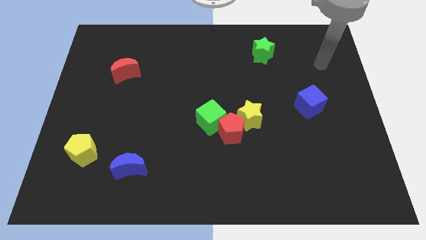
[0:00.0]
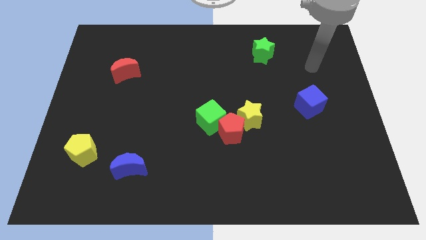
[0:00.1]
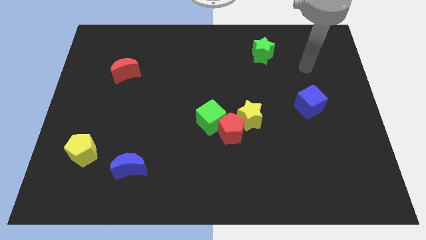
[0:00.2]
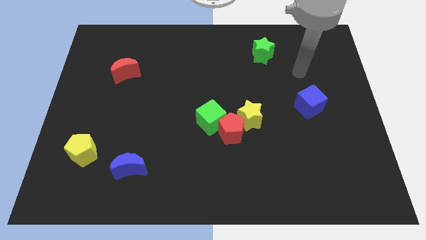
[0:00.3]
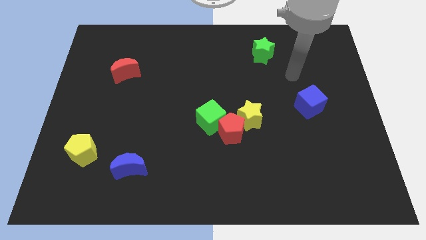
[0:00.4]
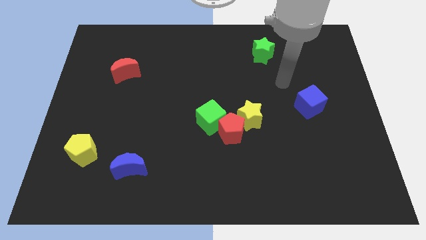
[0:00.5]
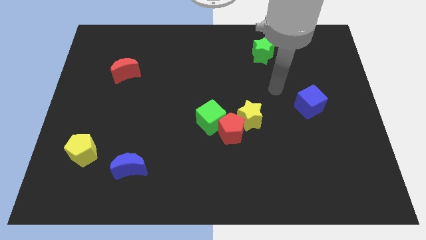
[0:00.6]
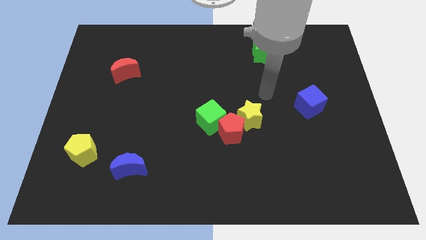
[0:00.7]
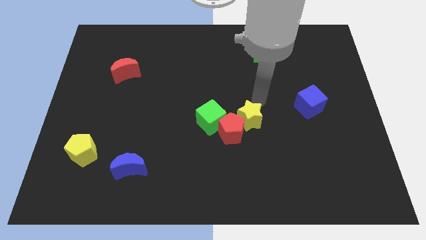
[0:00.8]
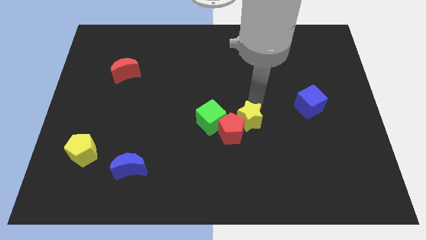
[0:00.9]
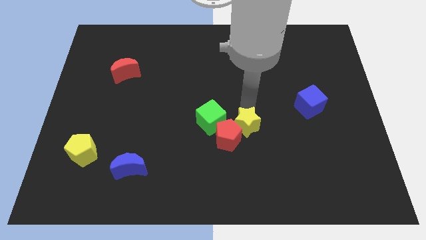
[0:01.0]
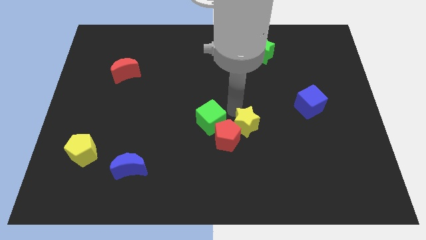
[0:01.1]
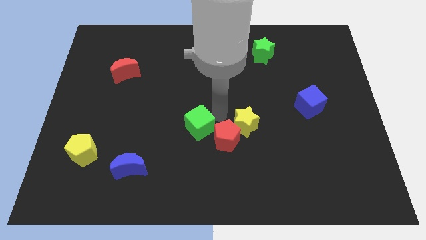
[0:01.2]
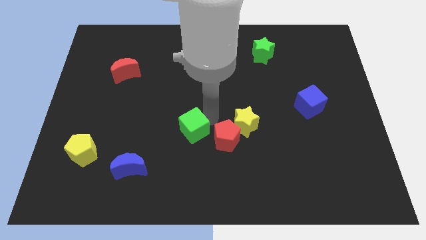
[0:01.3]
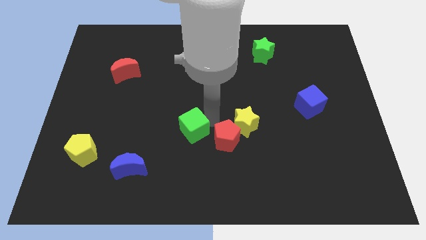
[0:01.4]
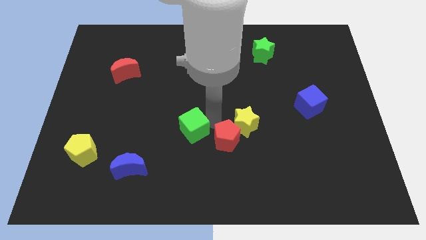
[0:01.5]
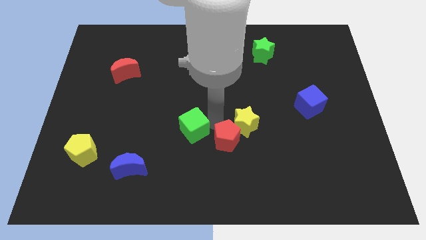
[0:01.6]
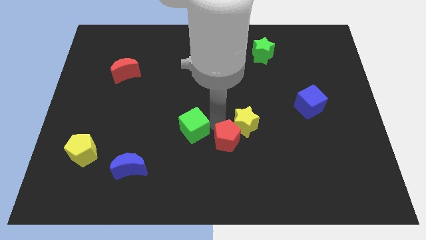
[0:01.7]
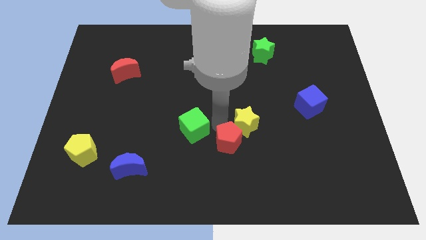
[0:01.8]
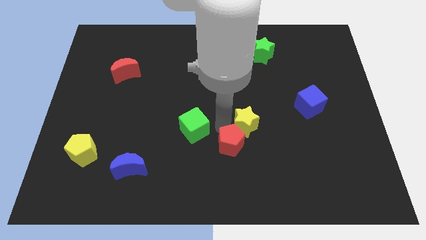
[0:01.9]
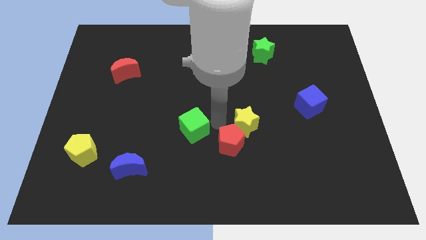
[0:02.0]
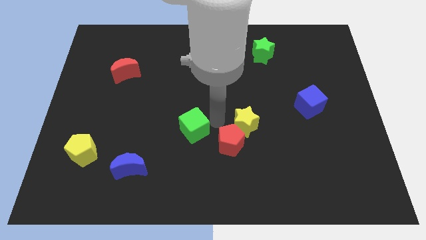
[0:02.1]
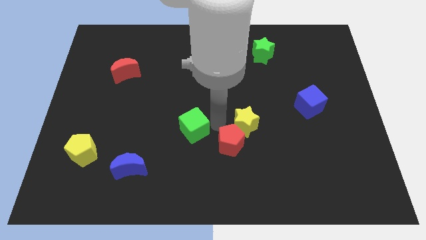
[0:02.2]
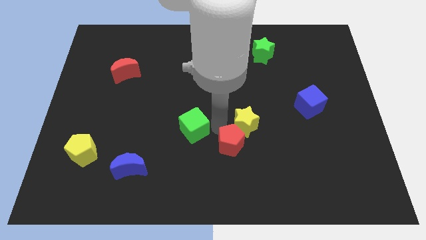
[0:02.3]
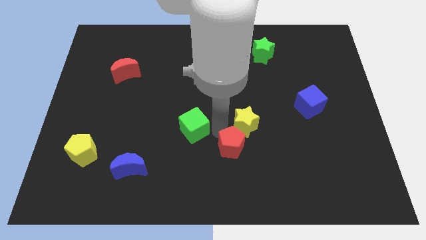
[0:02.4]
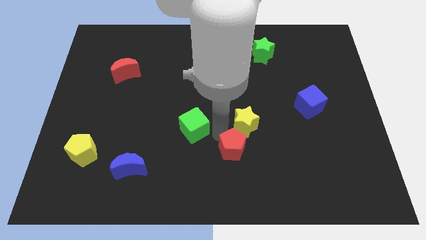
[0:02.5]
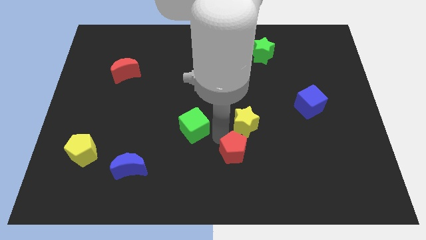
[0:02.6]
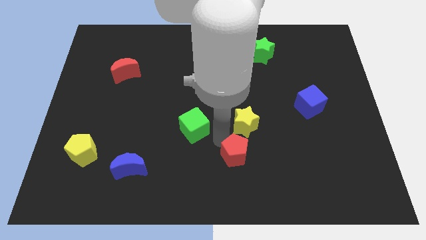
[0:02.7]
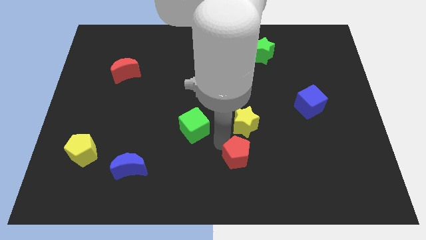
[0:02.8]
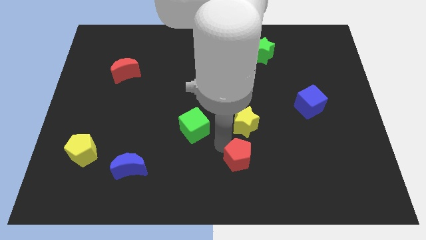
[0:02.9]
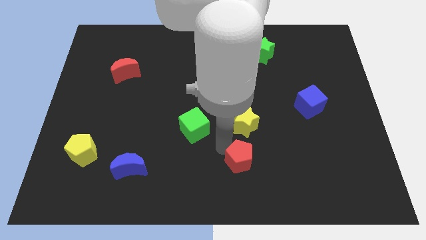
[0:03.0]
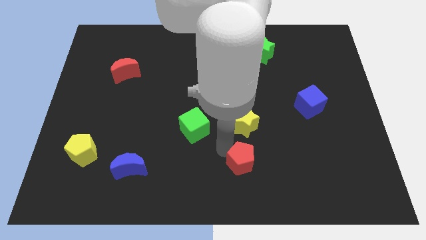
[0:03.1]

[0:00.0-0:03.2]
move the red pentagon away from the yellow star and green cube

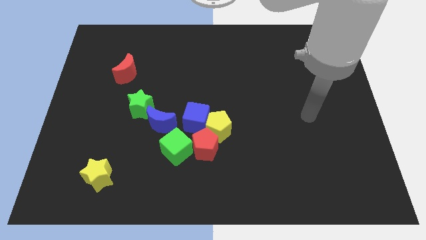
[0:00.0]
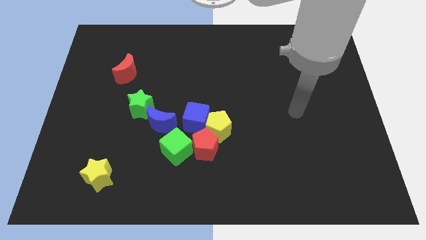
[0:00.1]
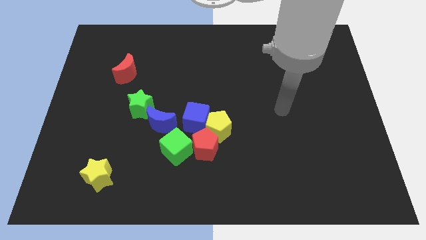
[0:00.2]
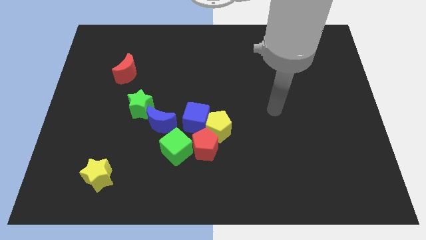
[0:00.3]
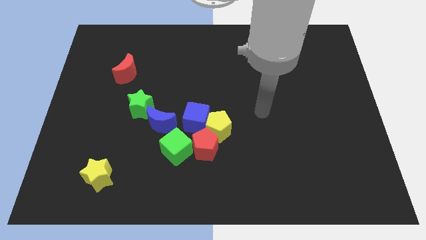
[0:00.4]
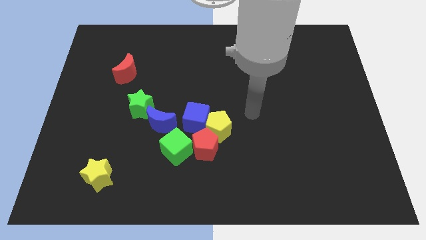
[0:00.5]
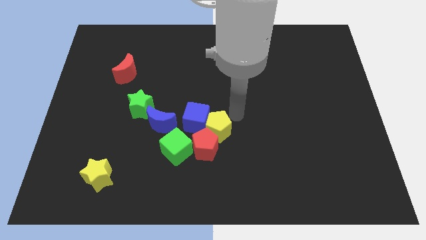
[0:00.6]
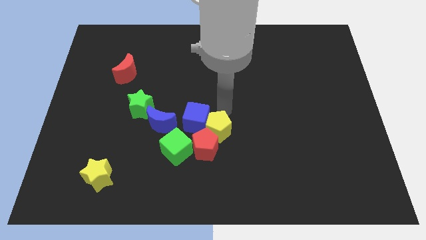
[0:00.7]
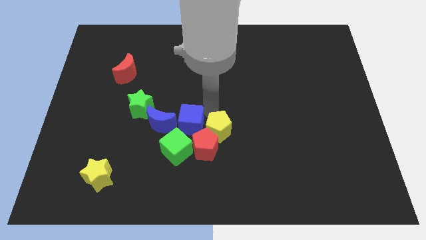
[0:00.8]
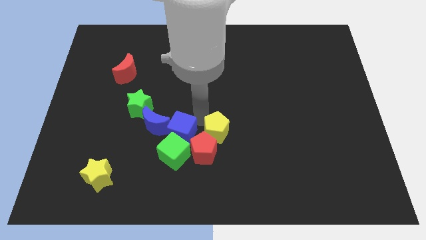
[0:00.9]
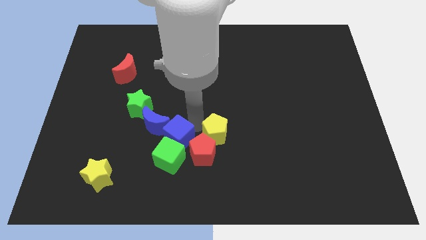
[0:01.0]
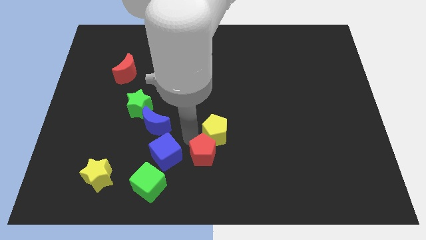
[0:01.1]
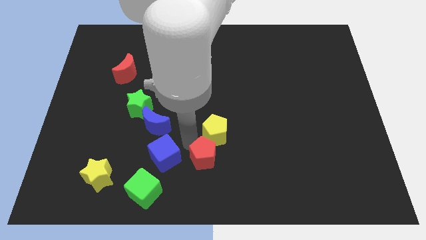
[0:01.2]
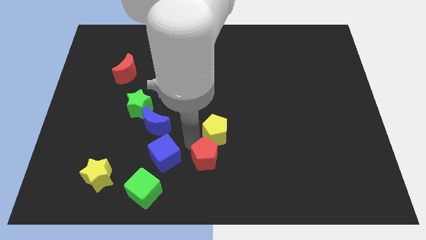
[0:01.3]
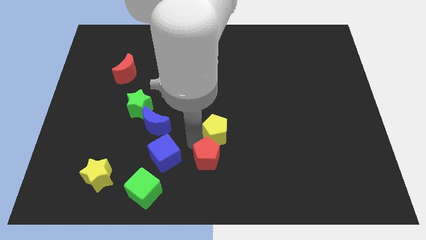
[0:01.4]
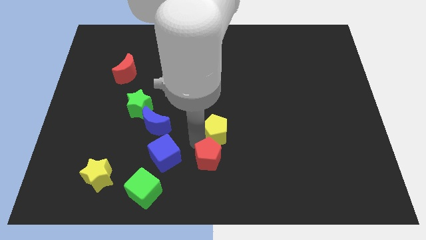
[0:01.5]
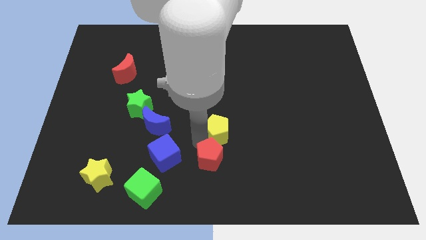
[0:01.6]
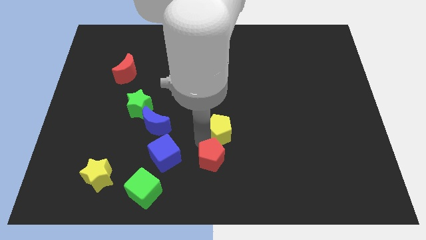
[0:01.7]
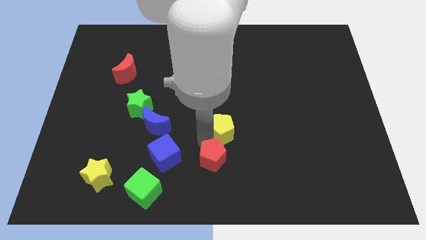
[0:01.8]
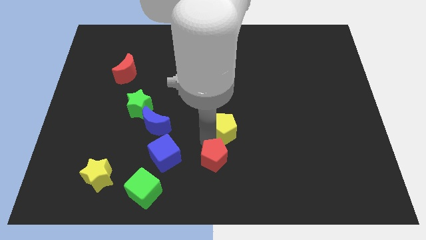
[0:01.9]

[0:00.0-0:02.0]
separate the yellow pentagon from the blue cube and red pentagon

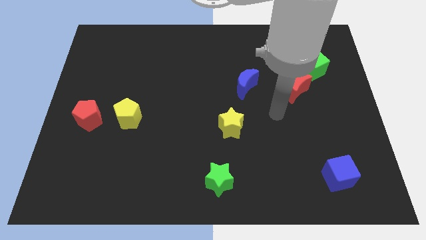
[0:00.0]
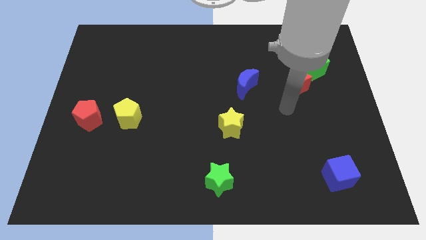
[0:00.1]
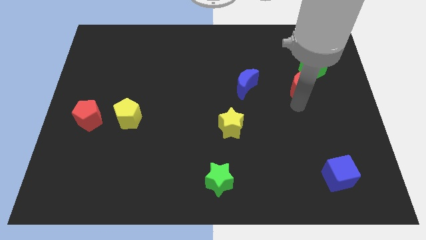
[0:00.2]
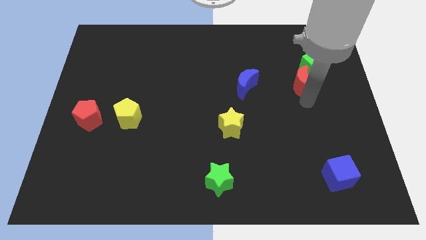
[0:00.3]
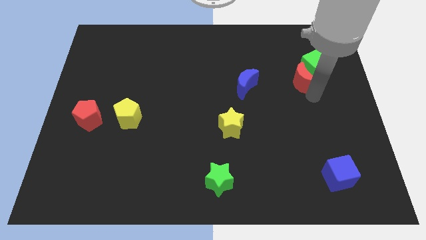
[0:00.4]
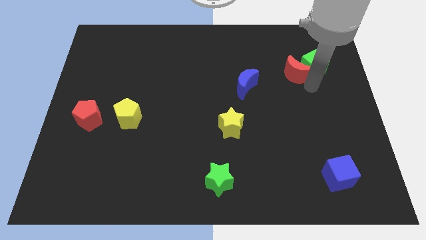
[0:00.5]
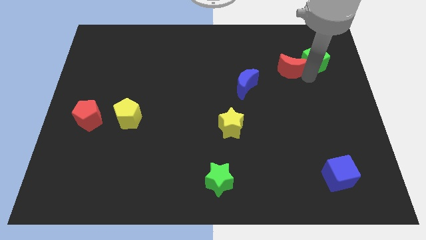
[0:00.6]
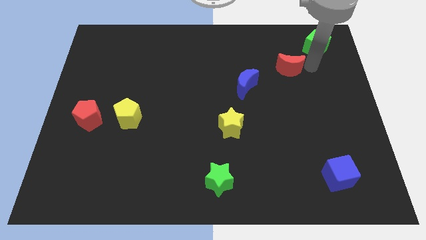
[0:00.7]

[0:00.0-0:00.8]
move the red moon away from the green cube

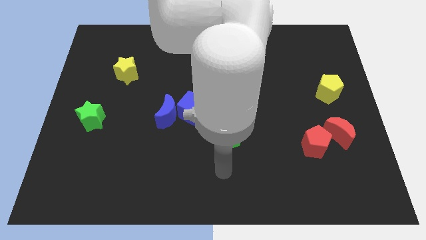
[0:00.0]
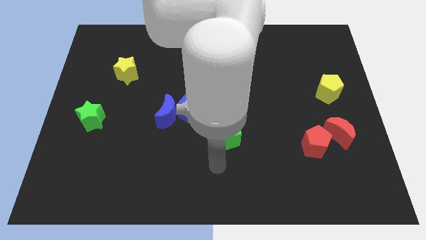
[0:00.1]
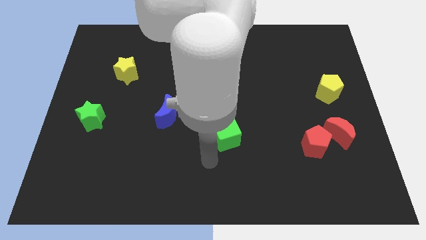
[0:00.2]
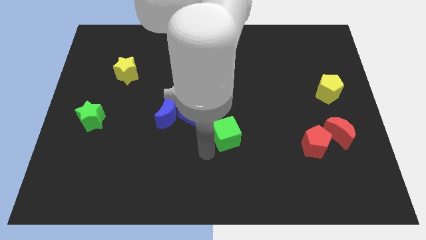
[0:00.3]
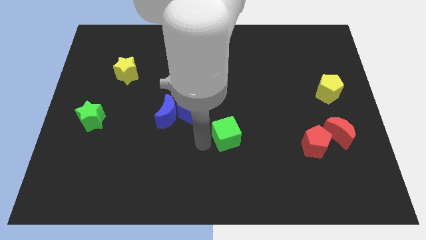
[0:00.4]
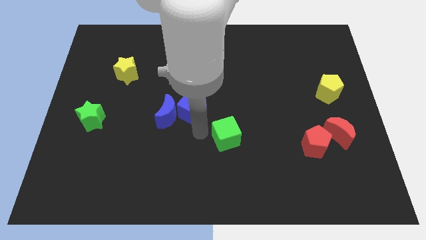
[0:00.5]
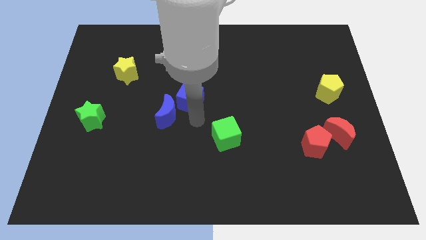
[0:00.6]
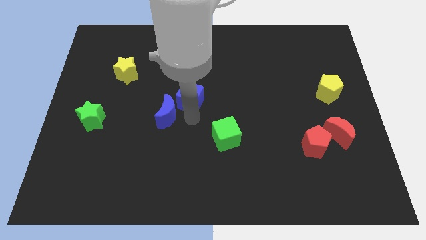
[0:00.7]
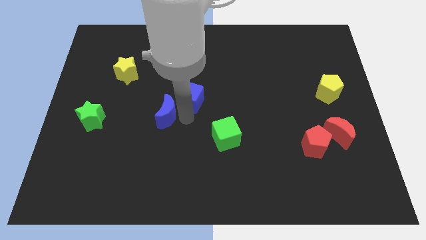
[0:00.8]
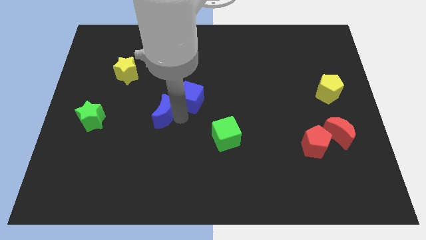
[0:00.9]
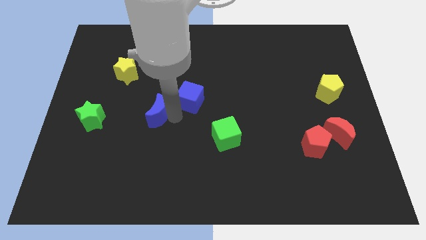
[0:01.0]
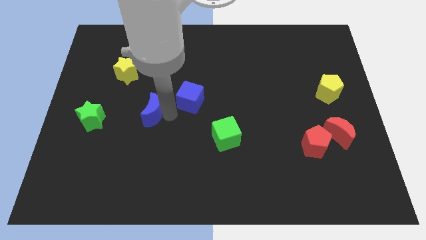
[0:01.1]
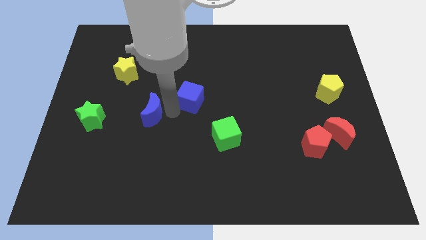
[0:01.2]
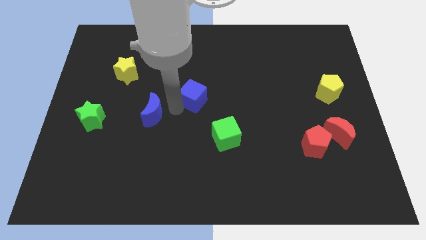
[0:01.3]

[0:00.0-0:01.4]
separate the blue moon from the blue cube

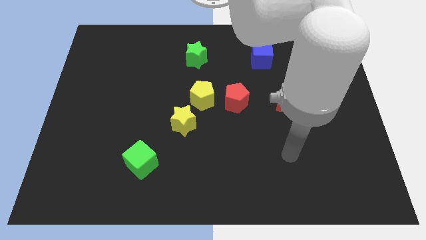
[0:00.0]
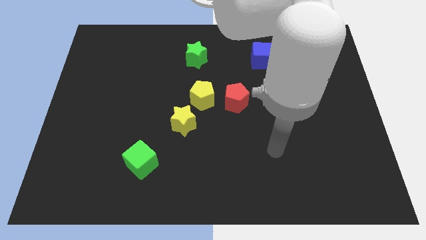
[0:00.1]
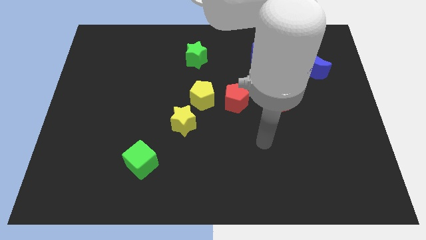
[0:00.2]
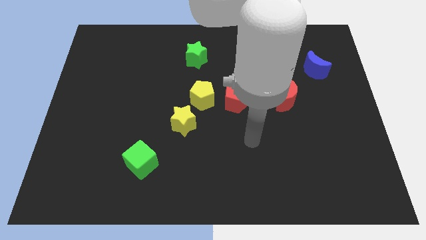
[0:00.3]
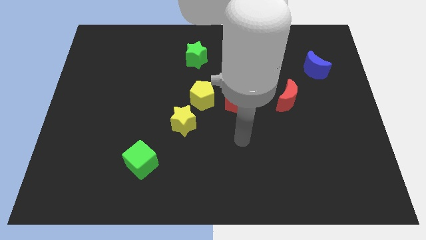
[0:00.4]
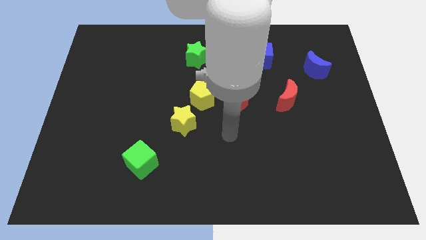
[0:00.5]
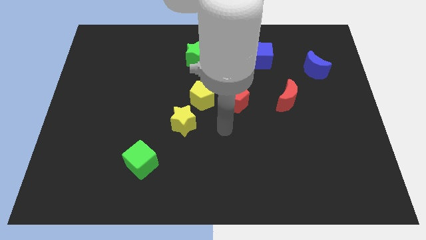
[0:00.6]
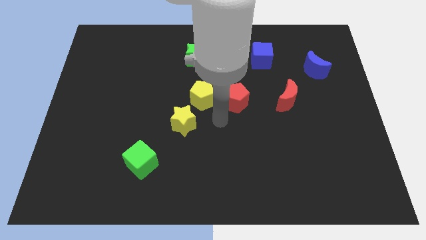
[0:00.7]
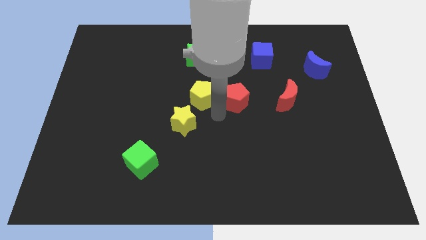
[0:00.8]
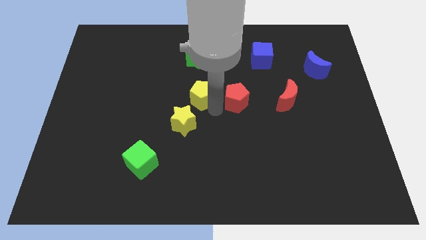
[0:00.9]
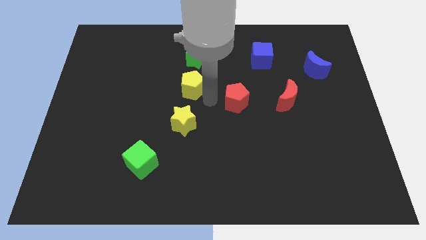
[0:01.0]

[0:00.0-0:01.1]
pull the red pentagon apart from the yellow pentagon

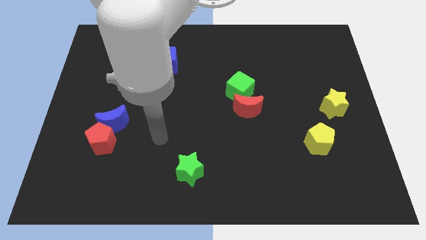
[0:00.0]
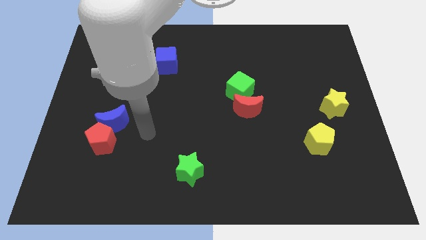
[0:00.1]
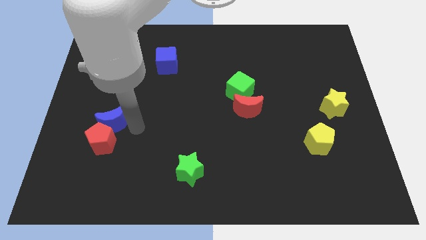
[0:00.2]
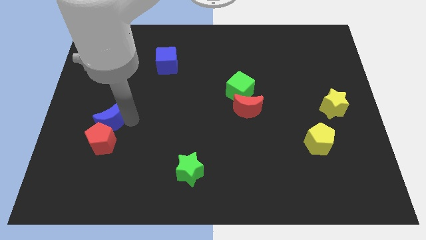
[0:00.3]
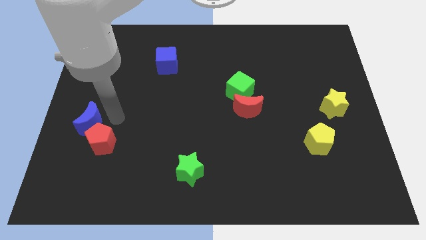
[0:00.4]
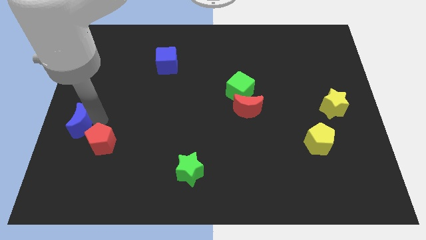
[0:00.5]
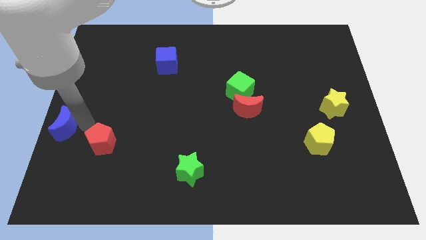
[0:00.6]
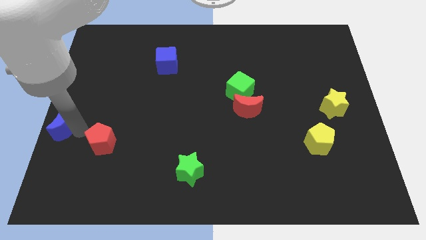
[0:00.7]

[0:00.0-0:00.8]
pull the red pentagon apart from the blue moon

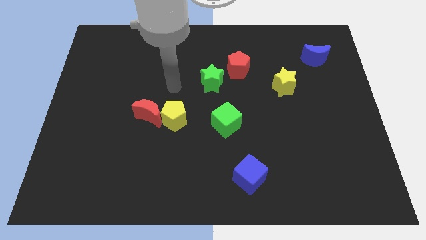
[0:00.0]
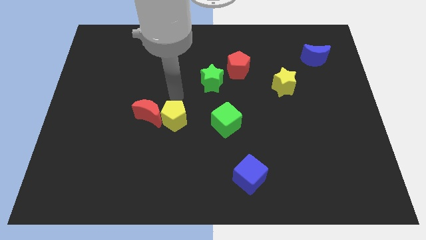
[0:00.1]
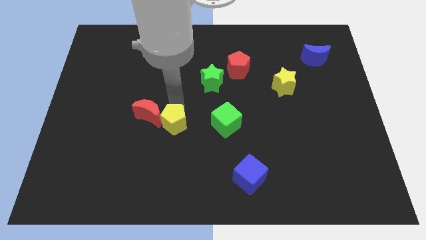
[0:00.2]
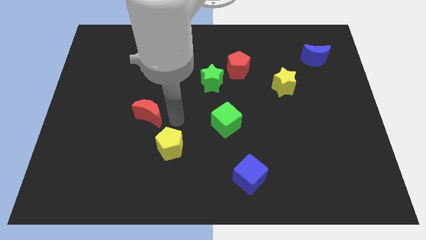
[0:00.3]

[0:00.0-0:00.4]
pull the red moon apart from the yellow pentagon
